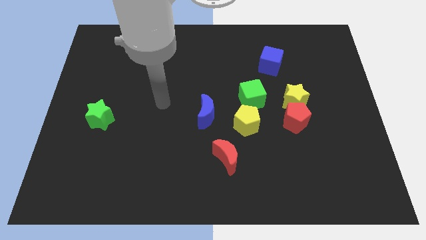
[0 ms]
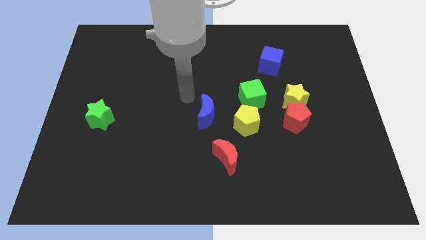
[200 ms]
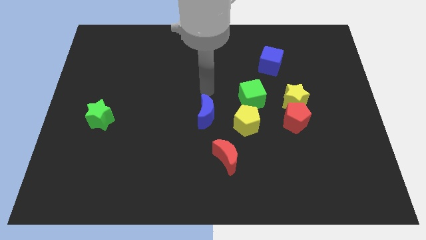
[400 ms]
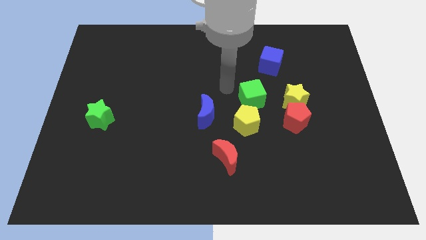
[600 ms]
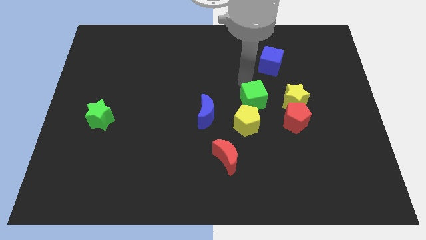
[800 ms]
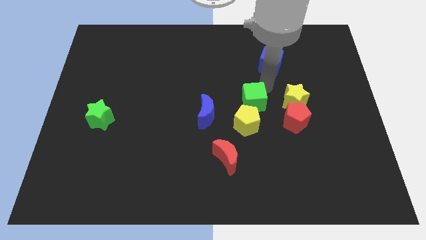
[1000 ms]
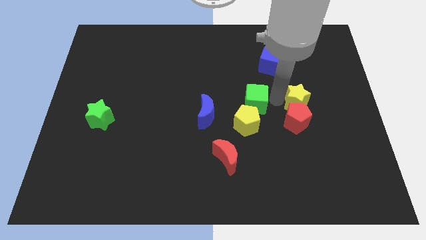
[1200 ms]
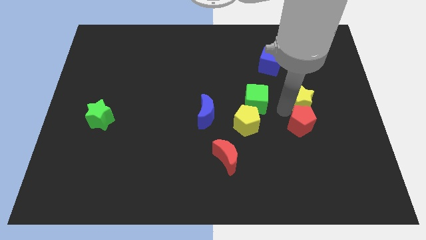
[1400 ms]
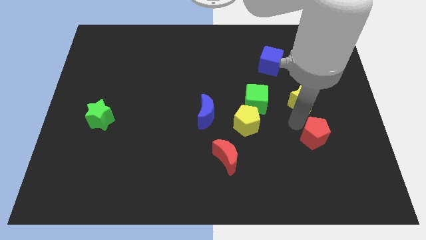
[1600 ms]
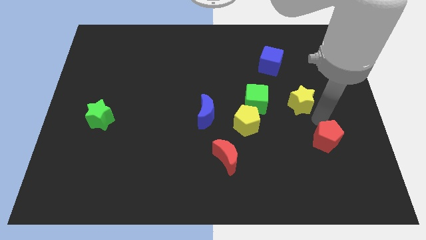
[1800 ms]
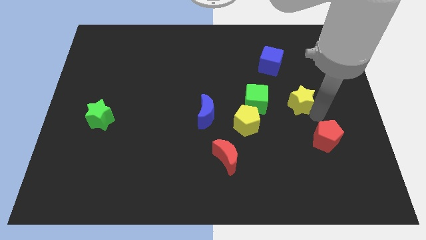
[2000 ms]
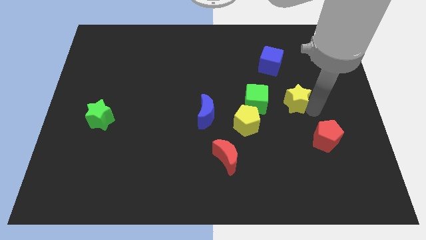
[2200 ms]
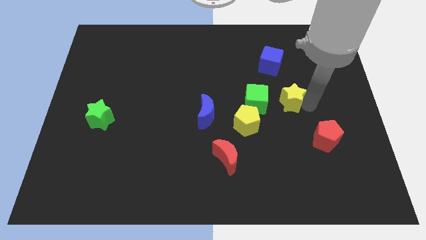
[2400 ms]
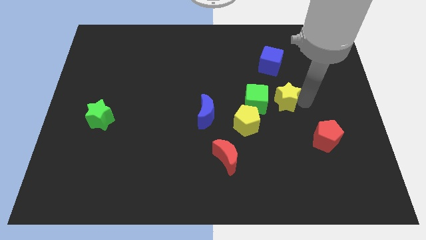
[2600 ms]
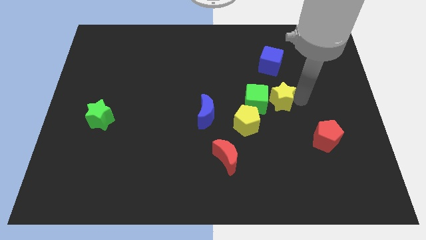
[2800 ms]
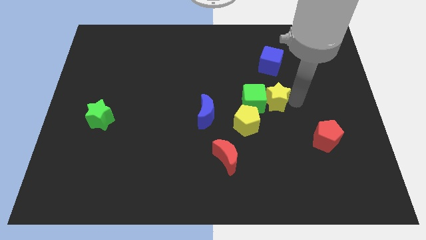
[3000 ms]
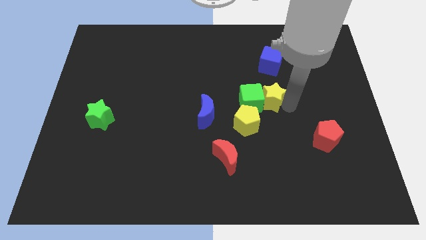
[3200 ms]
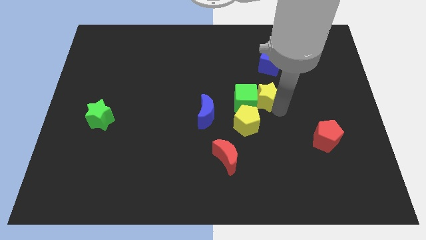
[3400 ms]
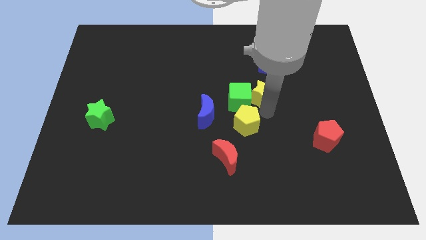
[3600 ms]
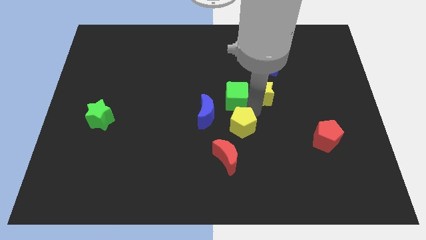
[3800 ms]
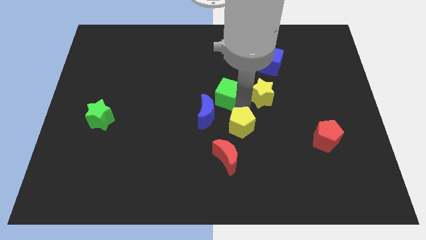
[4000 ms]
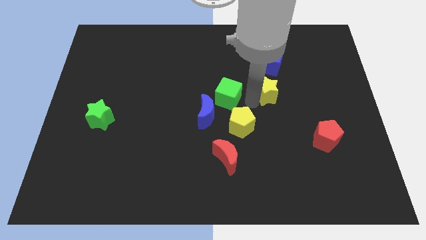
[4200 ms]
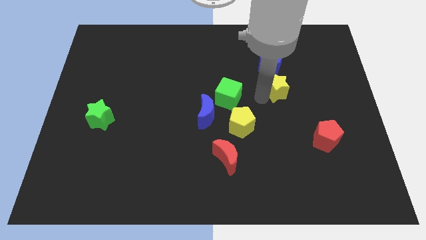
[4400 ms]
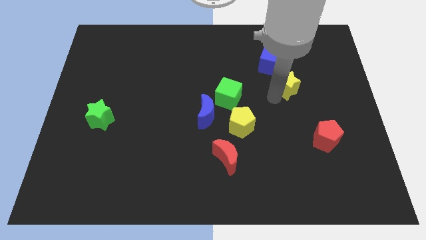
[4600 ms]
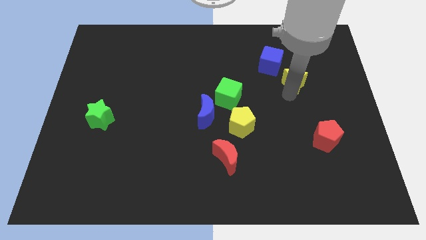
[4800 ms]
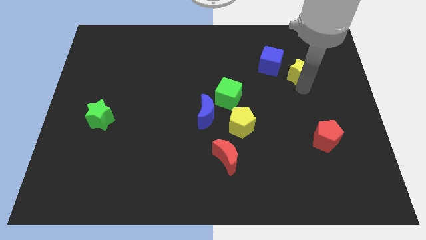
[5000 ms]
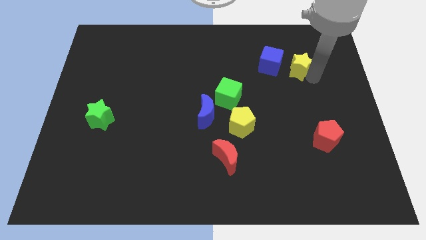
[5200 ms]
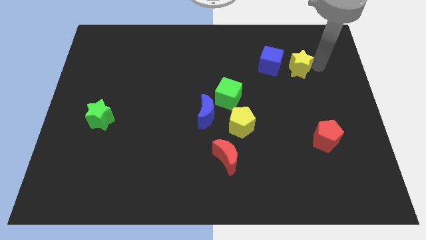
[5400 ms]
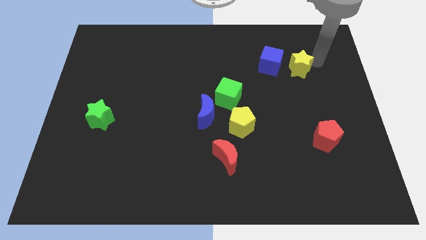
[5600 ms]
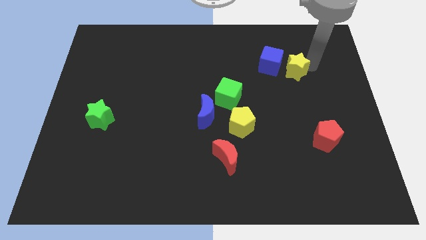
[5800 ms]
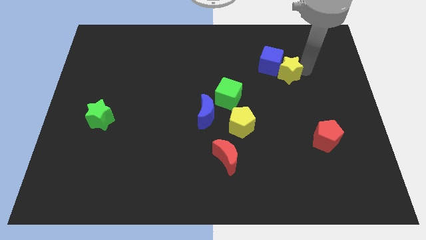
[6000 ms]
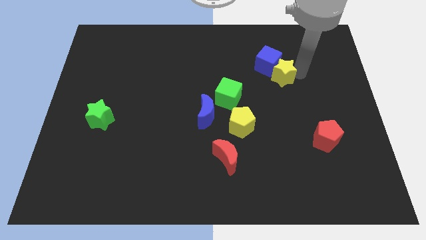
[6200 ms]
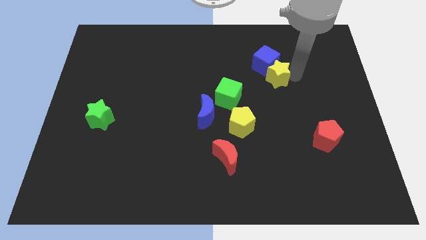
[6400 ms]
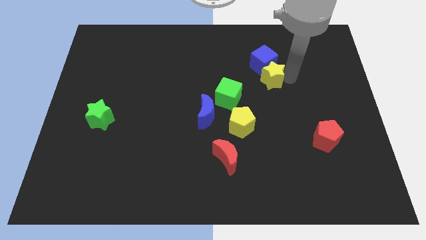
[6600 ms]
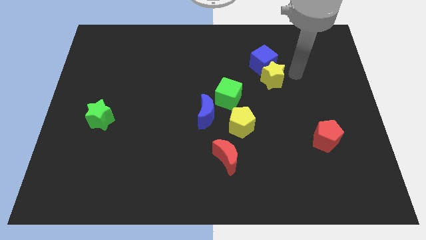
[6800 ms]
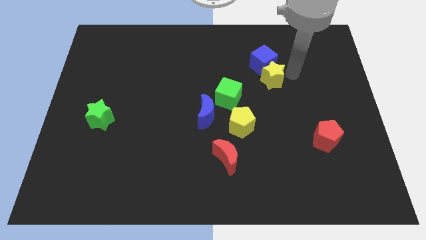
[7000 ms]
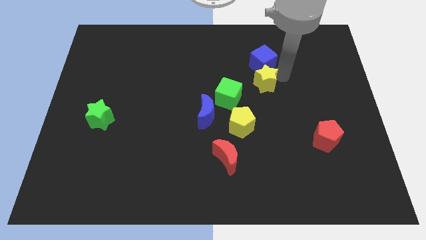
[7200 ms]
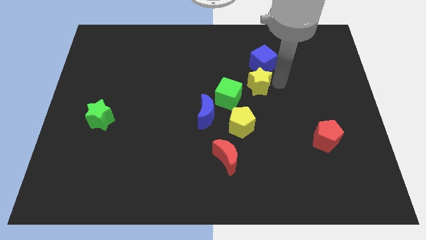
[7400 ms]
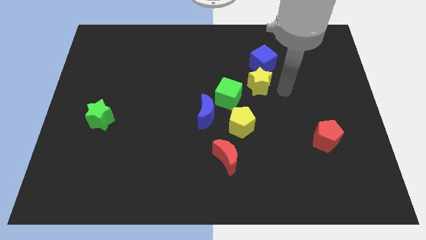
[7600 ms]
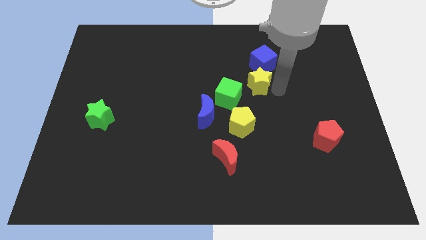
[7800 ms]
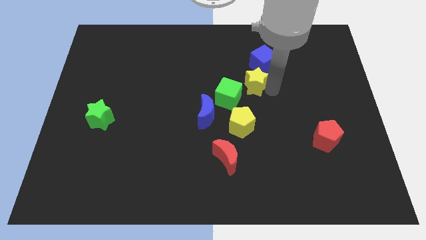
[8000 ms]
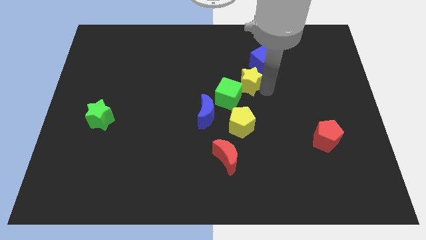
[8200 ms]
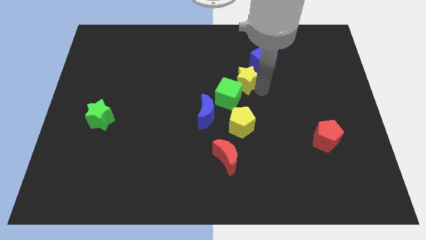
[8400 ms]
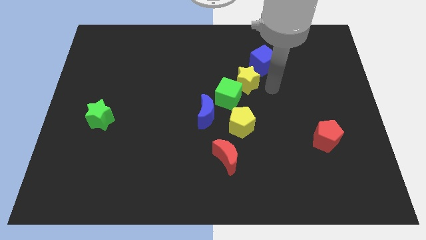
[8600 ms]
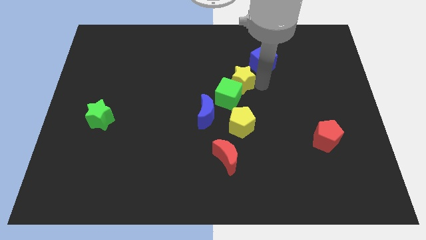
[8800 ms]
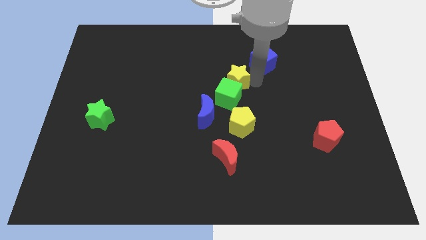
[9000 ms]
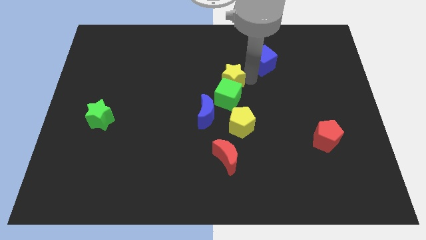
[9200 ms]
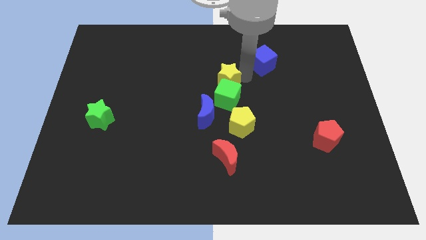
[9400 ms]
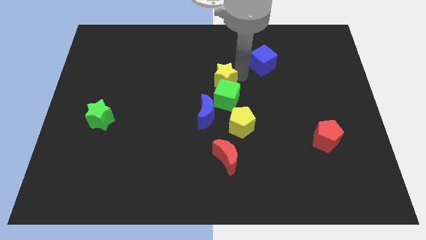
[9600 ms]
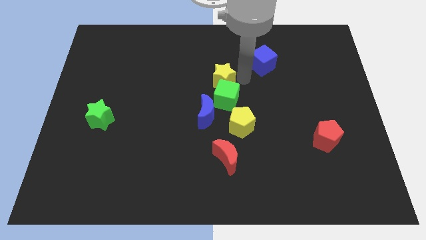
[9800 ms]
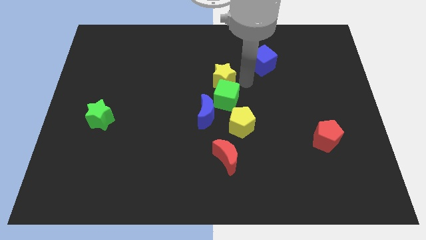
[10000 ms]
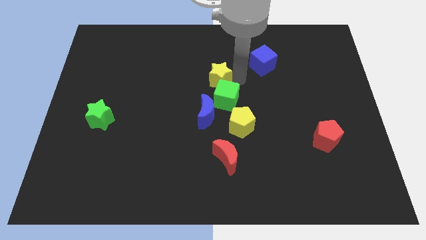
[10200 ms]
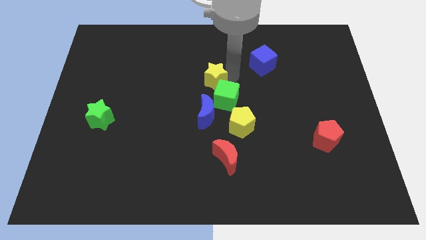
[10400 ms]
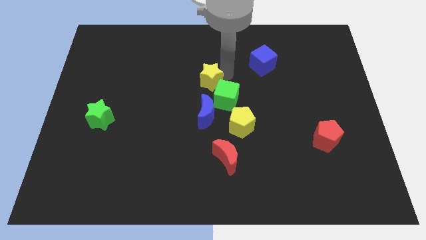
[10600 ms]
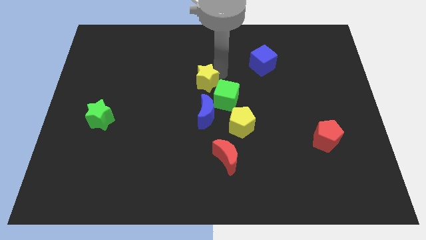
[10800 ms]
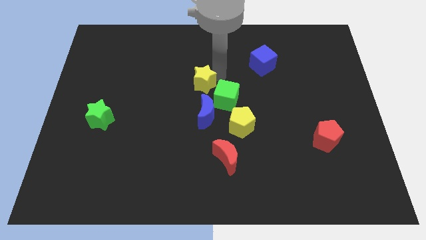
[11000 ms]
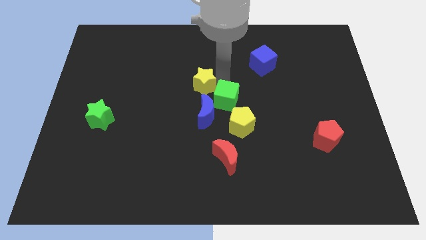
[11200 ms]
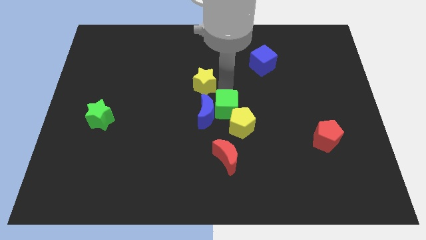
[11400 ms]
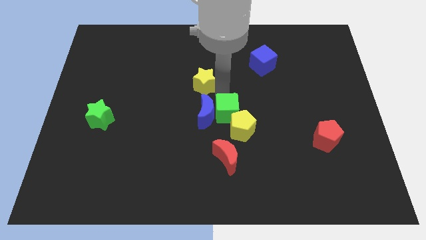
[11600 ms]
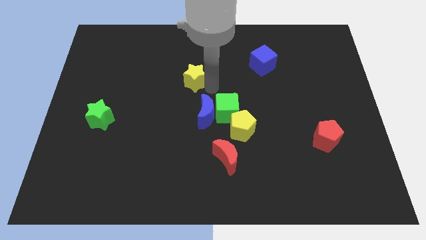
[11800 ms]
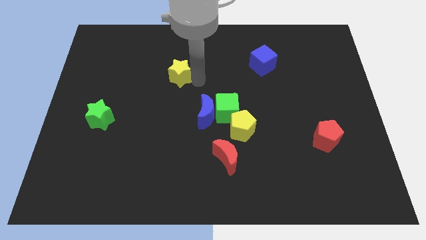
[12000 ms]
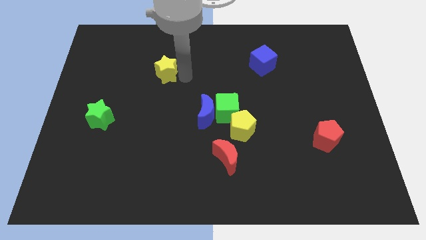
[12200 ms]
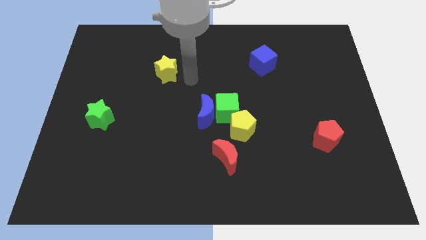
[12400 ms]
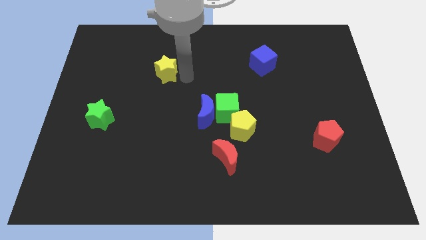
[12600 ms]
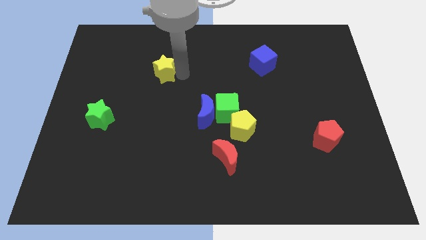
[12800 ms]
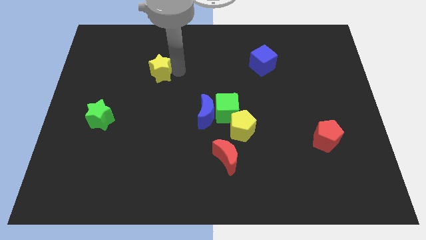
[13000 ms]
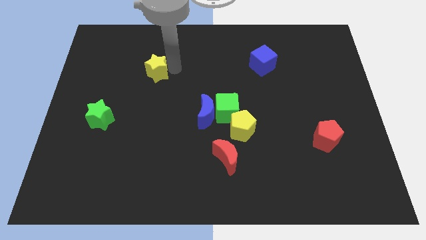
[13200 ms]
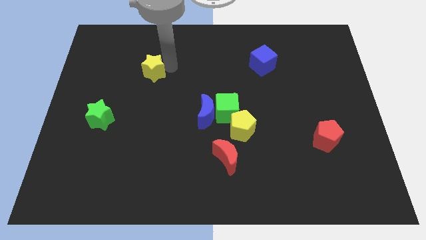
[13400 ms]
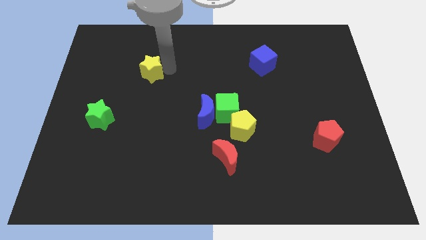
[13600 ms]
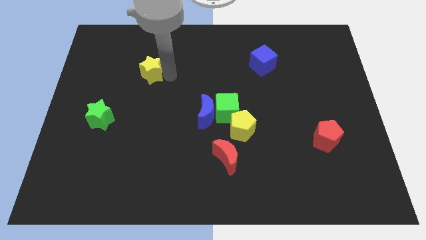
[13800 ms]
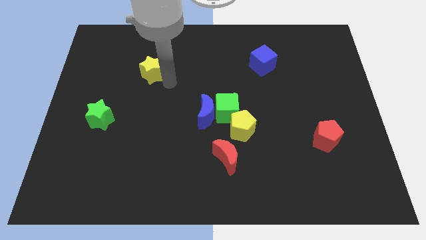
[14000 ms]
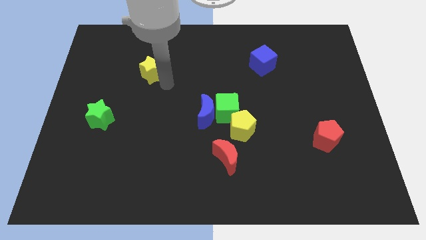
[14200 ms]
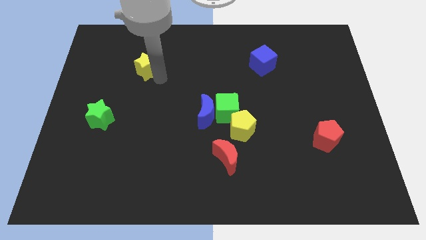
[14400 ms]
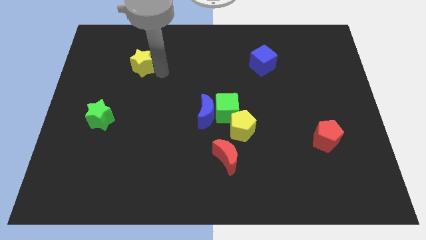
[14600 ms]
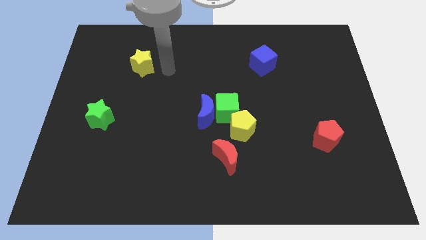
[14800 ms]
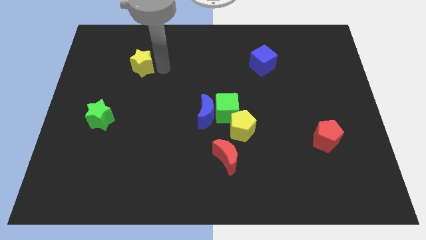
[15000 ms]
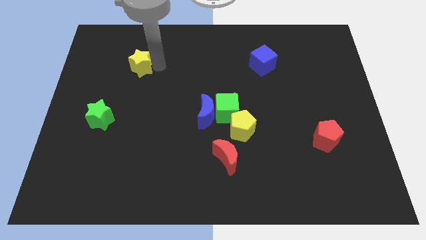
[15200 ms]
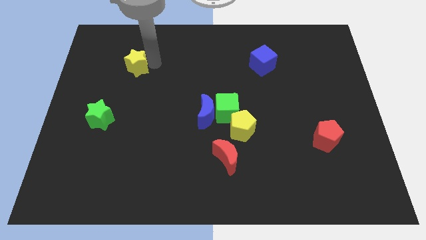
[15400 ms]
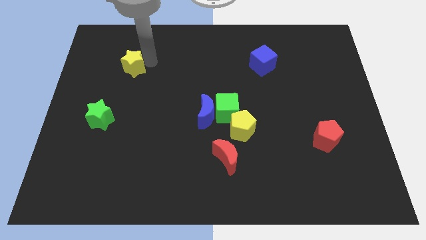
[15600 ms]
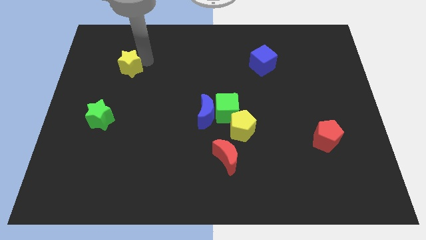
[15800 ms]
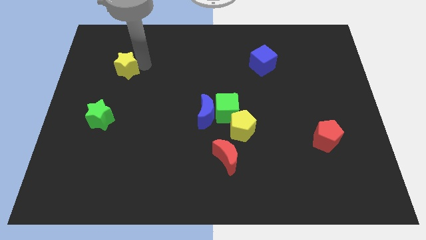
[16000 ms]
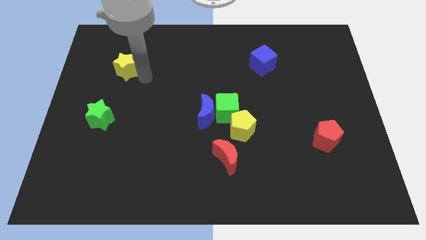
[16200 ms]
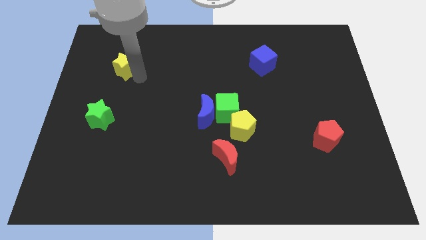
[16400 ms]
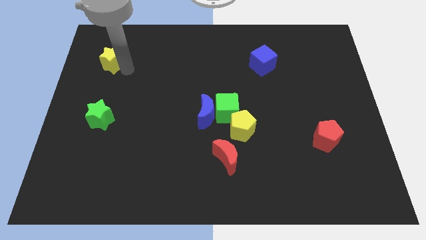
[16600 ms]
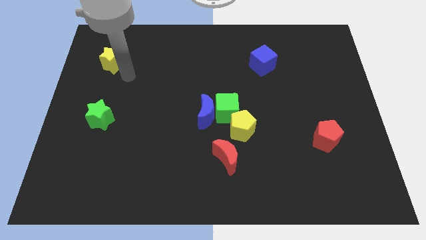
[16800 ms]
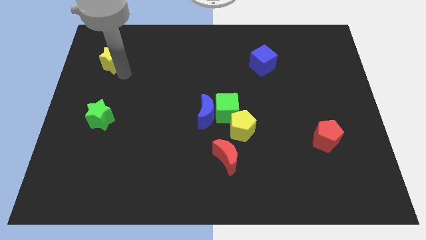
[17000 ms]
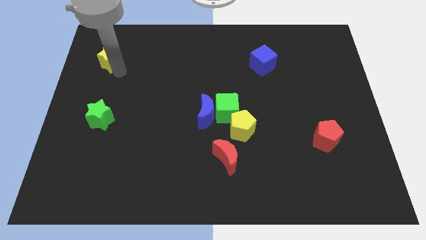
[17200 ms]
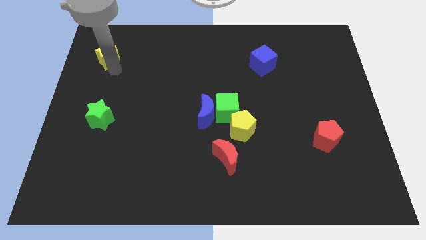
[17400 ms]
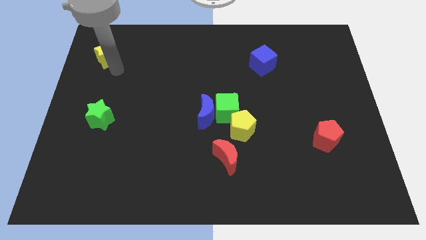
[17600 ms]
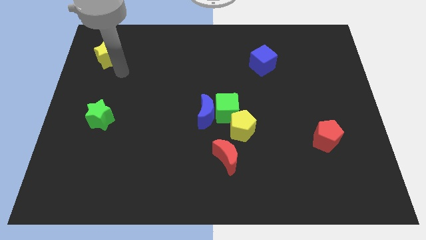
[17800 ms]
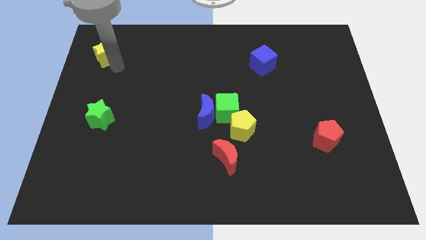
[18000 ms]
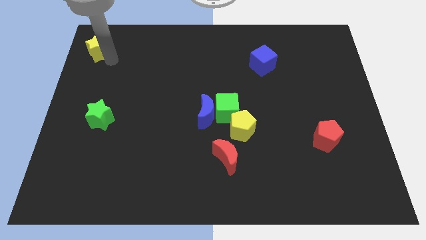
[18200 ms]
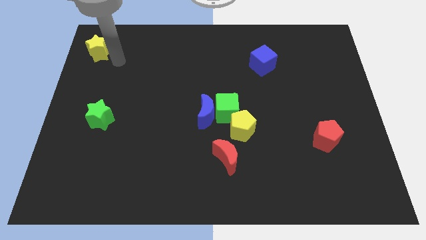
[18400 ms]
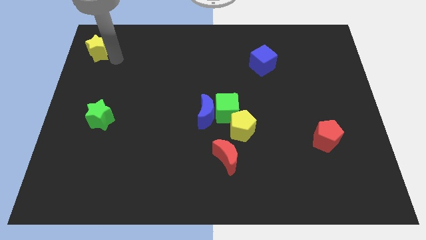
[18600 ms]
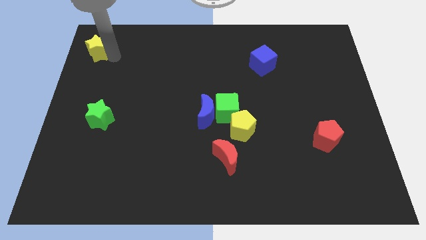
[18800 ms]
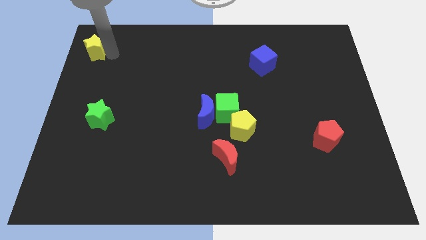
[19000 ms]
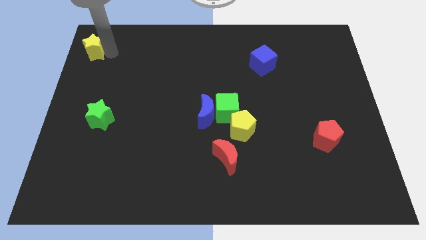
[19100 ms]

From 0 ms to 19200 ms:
slide the yellow star to the top left corner
